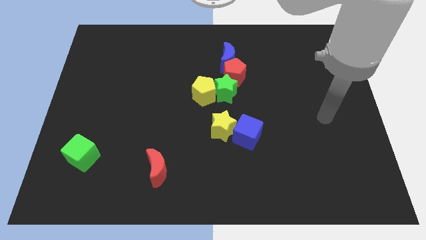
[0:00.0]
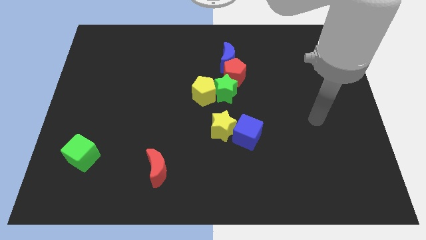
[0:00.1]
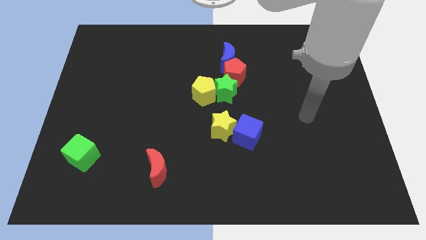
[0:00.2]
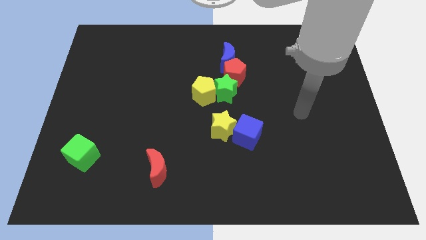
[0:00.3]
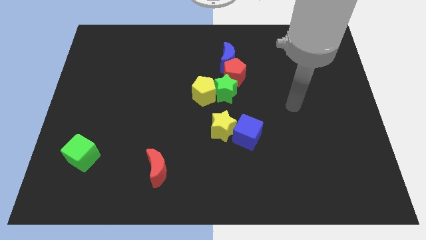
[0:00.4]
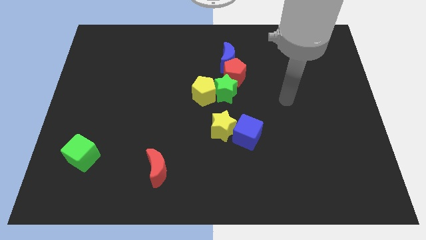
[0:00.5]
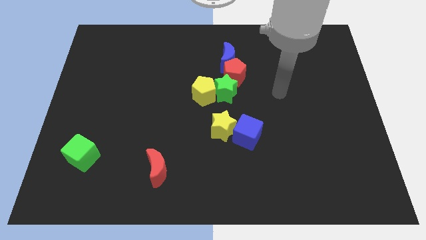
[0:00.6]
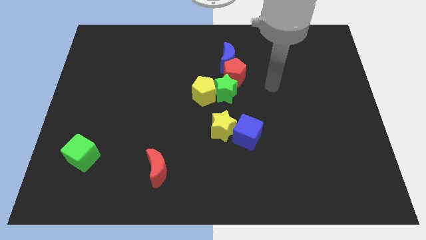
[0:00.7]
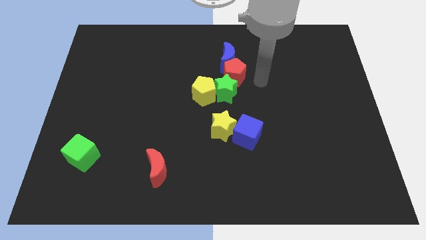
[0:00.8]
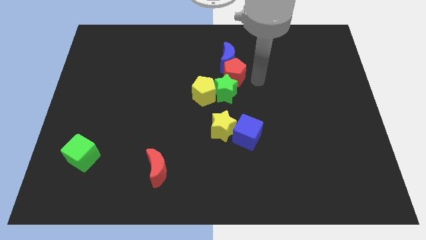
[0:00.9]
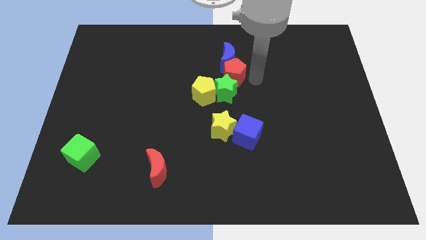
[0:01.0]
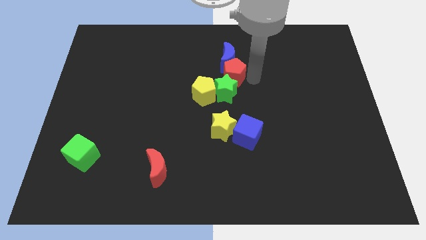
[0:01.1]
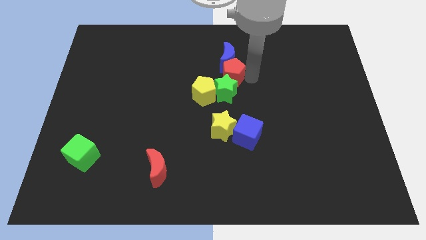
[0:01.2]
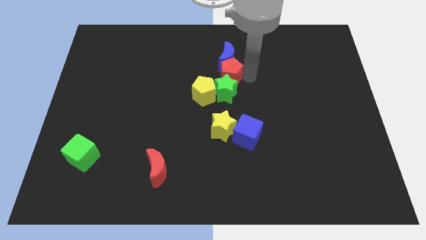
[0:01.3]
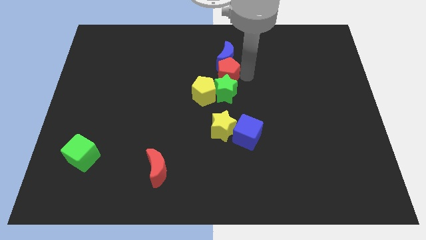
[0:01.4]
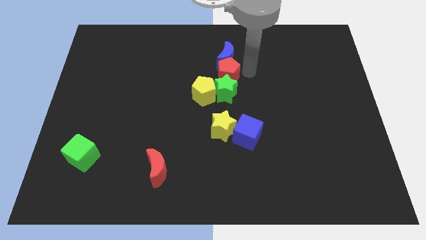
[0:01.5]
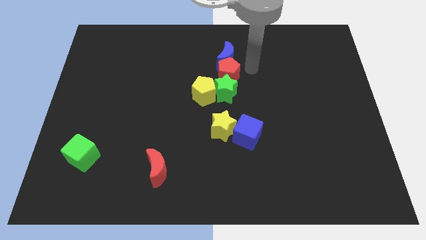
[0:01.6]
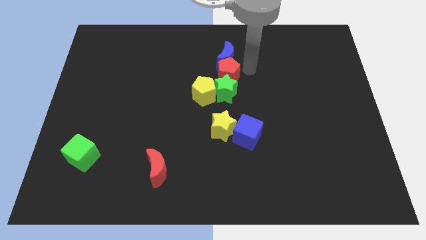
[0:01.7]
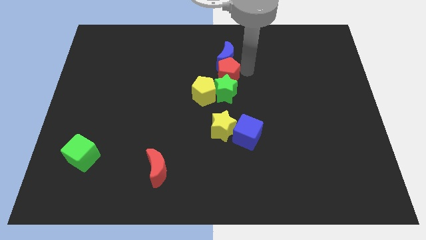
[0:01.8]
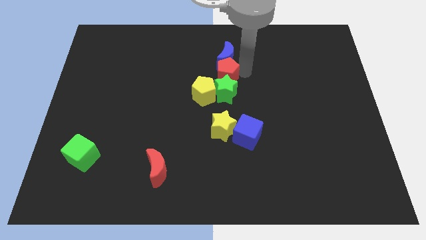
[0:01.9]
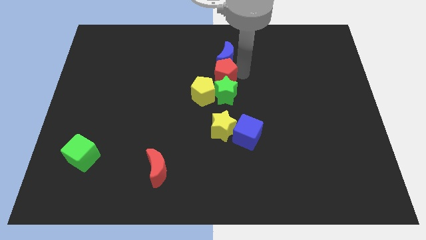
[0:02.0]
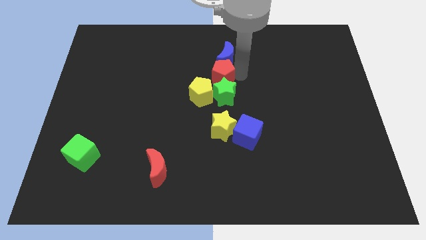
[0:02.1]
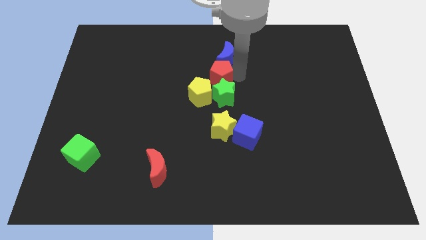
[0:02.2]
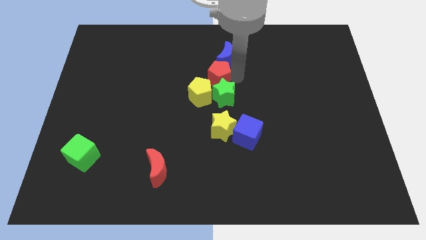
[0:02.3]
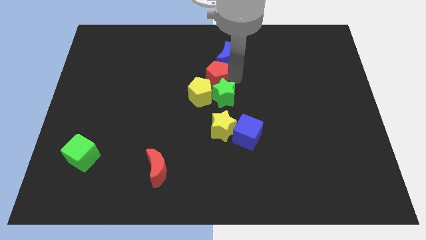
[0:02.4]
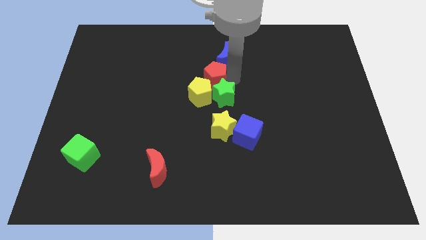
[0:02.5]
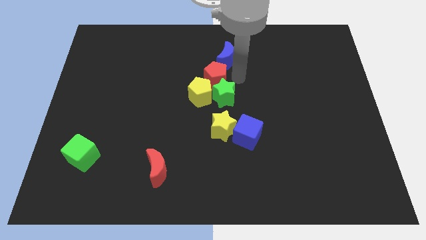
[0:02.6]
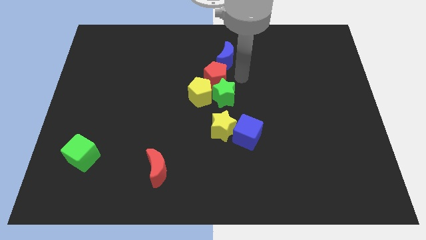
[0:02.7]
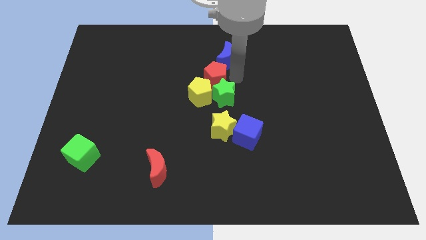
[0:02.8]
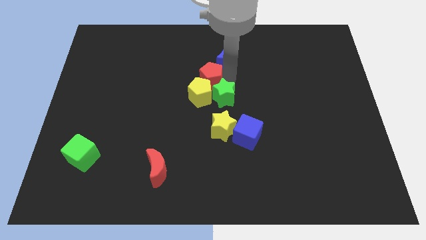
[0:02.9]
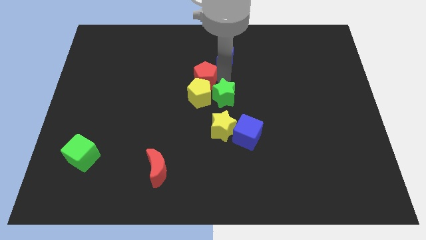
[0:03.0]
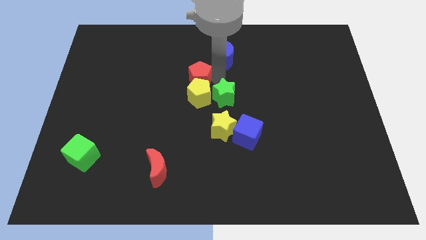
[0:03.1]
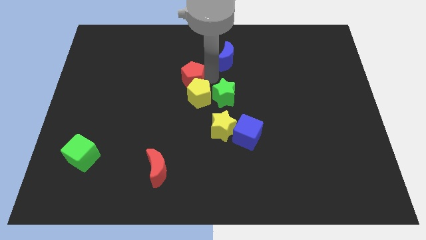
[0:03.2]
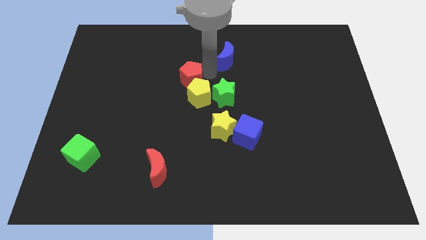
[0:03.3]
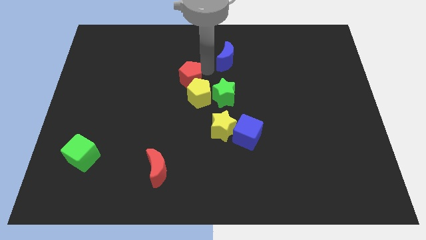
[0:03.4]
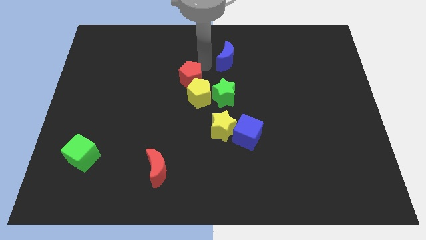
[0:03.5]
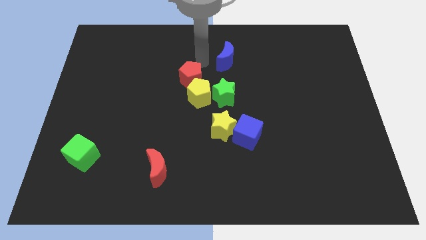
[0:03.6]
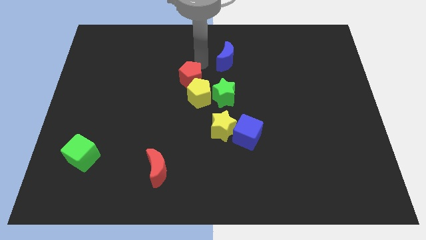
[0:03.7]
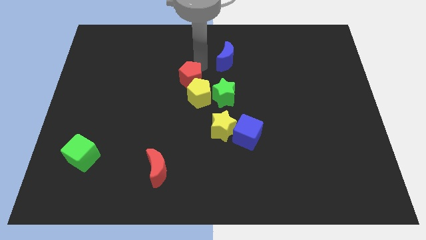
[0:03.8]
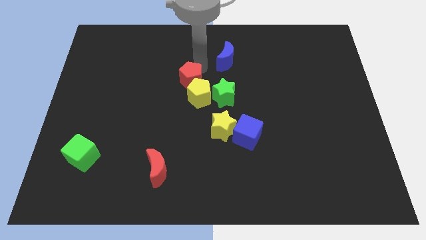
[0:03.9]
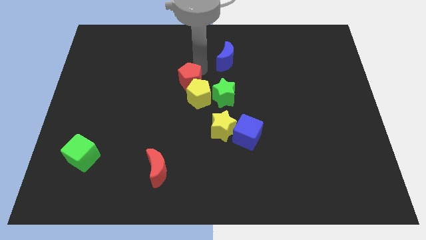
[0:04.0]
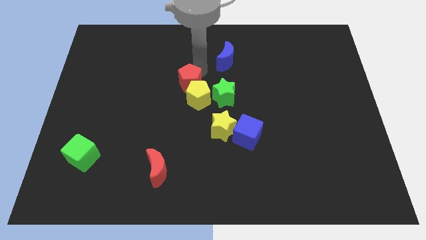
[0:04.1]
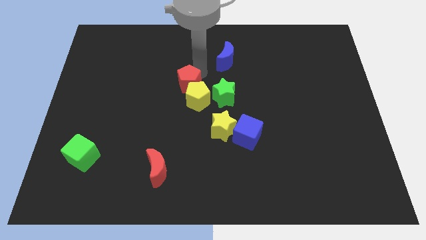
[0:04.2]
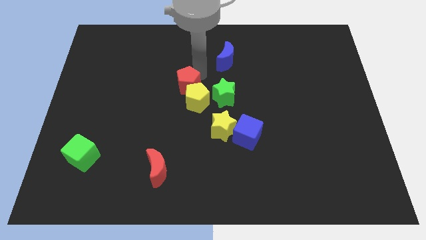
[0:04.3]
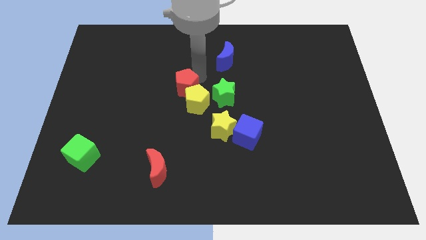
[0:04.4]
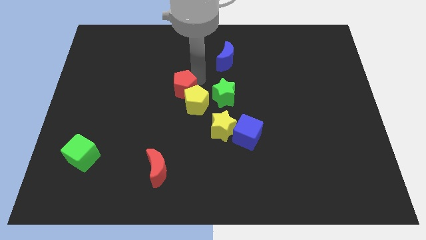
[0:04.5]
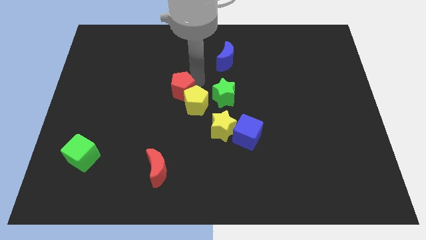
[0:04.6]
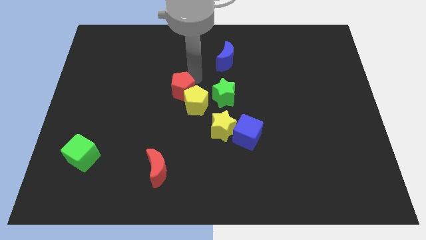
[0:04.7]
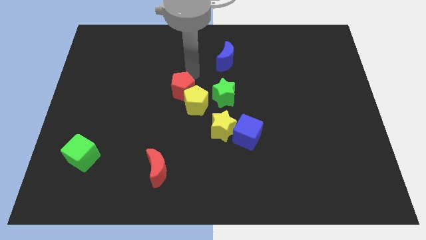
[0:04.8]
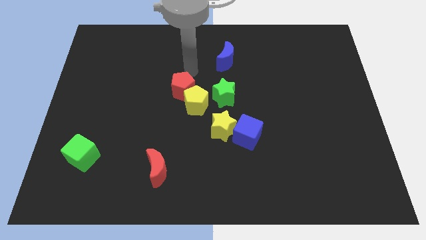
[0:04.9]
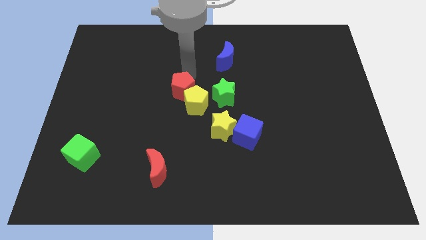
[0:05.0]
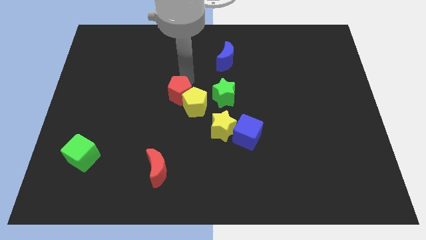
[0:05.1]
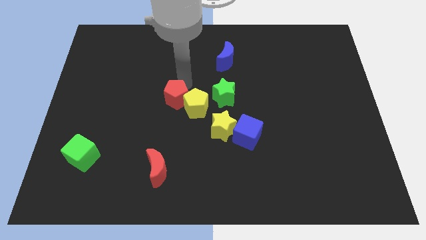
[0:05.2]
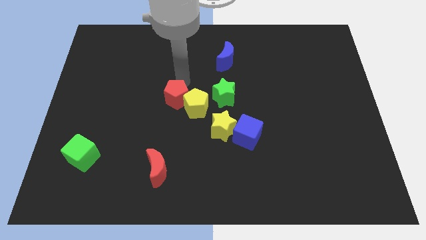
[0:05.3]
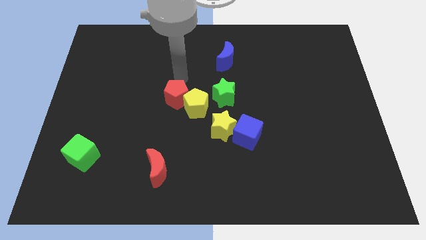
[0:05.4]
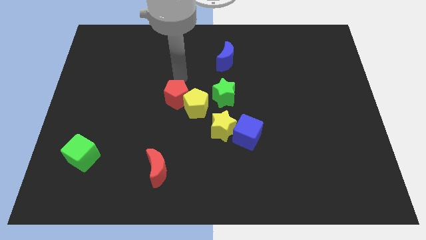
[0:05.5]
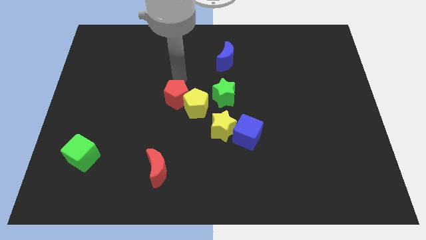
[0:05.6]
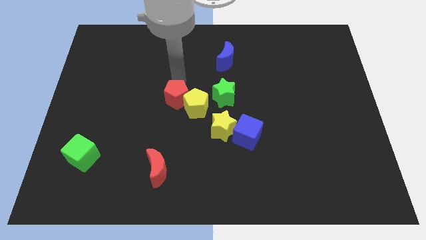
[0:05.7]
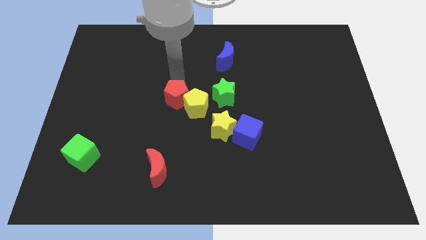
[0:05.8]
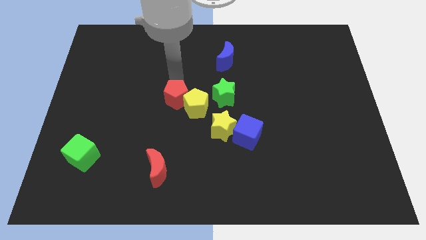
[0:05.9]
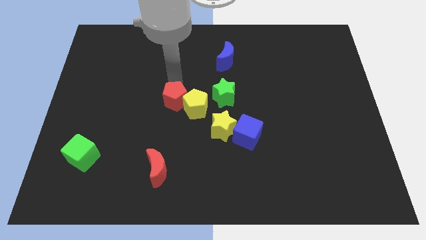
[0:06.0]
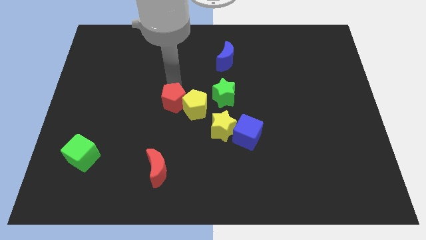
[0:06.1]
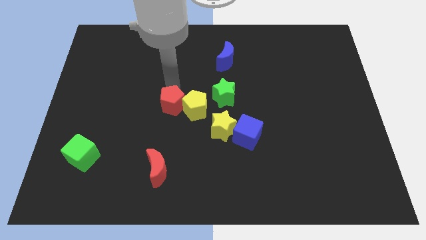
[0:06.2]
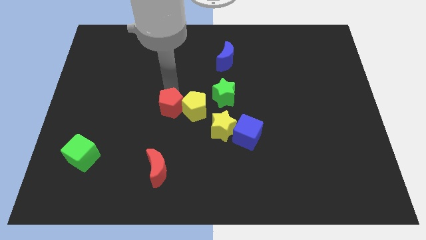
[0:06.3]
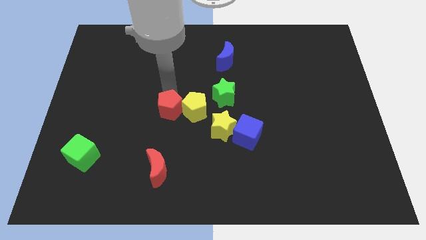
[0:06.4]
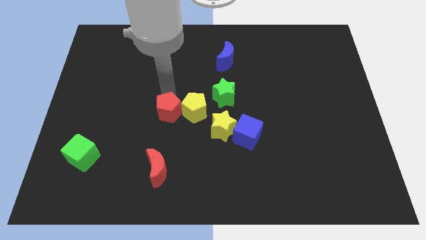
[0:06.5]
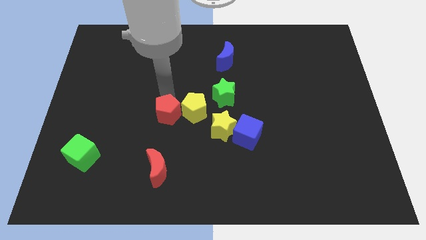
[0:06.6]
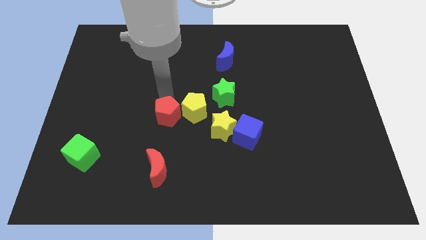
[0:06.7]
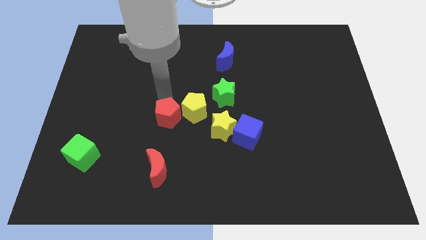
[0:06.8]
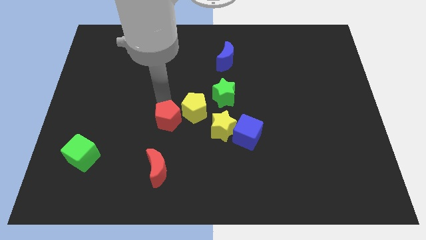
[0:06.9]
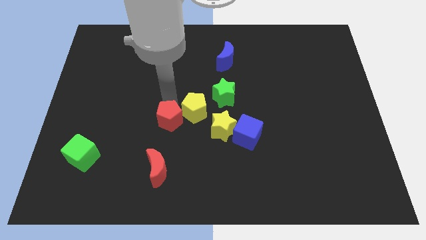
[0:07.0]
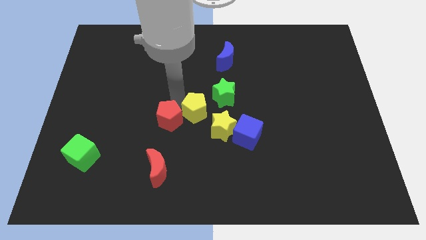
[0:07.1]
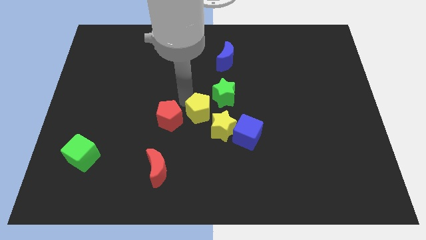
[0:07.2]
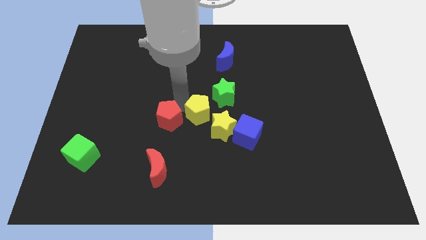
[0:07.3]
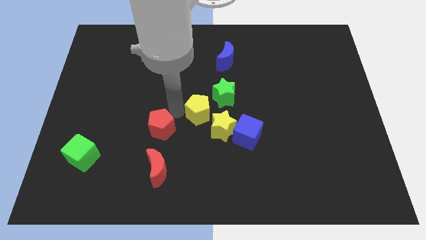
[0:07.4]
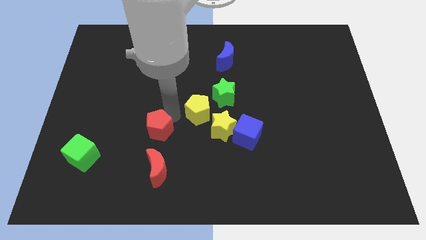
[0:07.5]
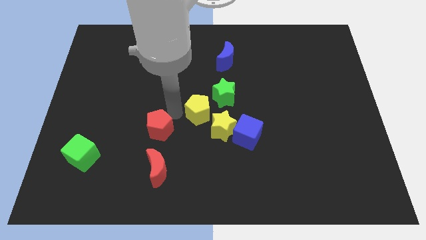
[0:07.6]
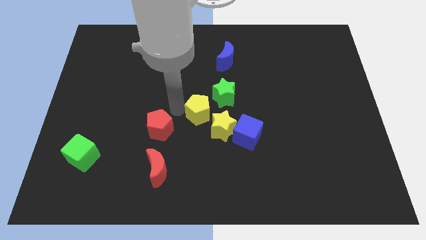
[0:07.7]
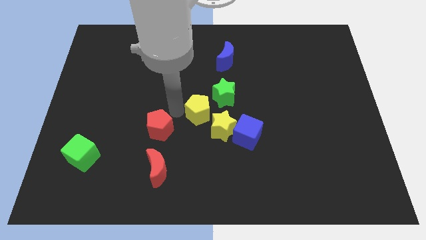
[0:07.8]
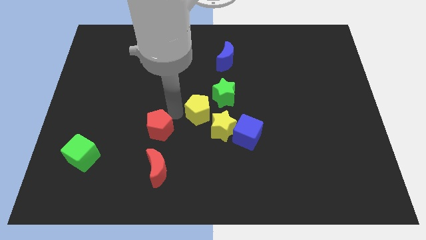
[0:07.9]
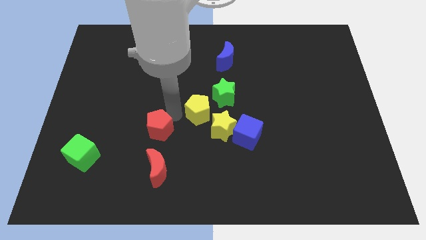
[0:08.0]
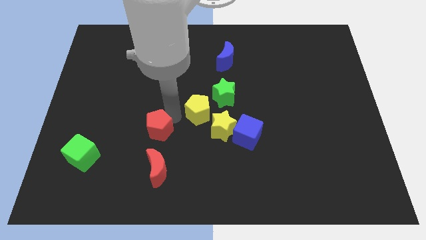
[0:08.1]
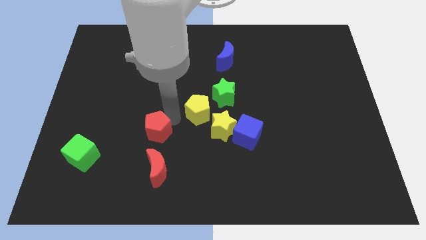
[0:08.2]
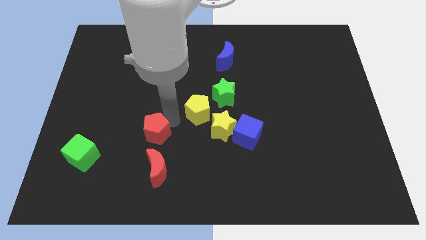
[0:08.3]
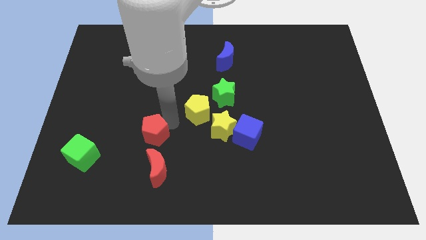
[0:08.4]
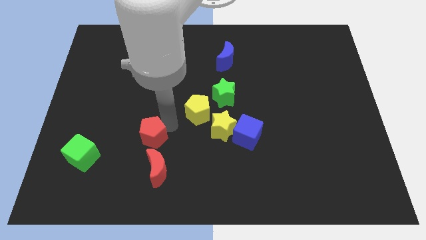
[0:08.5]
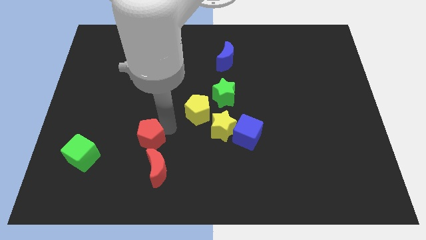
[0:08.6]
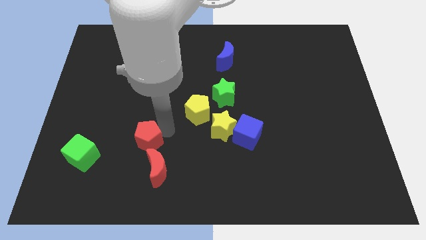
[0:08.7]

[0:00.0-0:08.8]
push the red pentagon just right of the green cube
